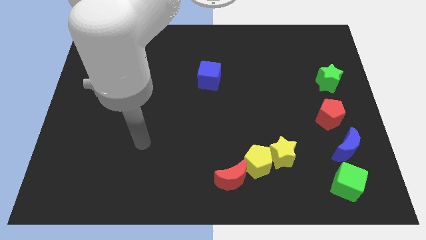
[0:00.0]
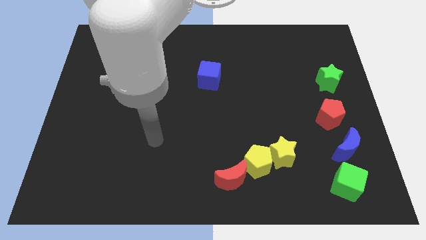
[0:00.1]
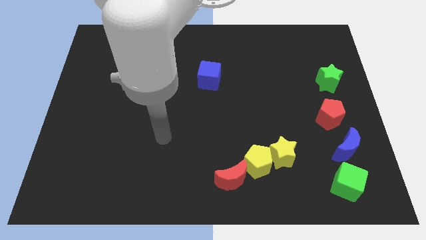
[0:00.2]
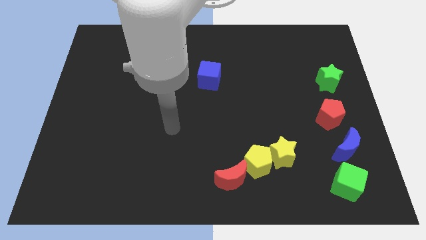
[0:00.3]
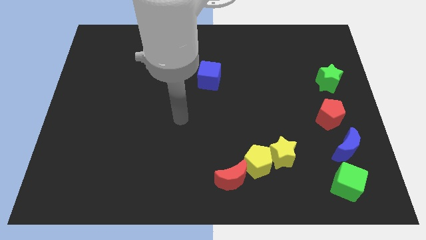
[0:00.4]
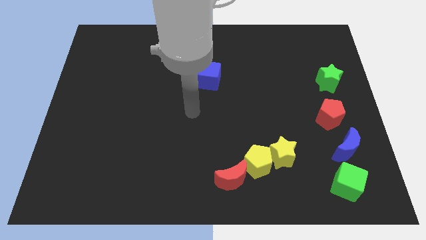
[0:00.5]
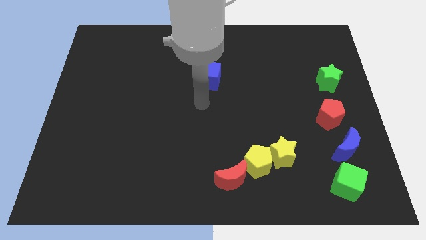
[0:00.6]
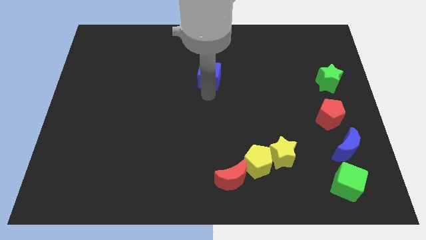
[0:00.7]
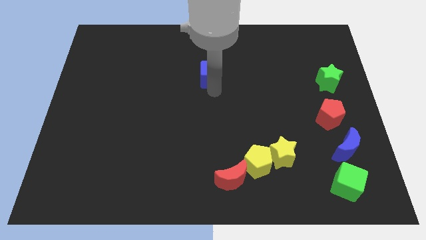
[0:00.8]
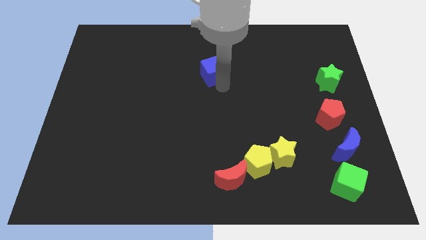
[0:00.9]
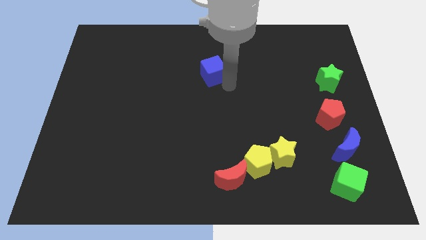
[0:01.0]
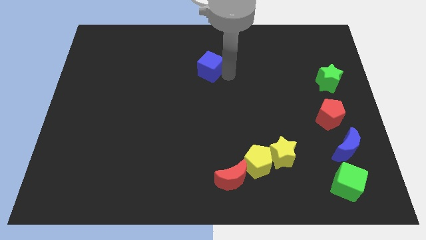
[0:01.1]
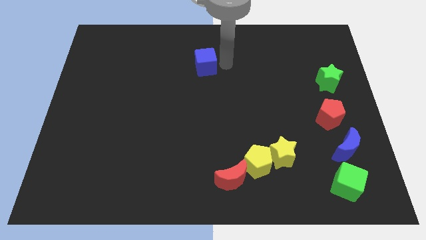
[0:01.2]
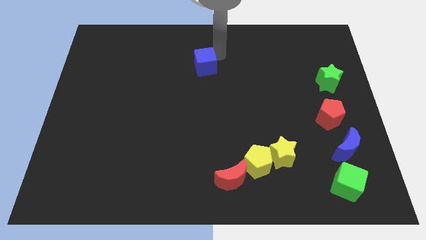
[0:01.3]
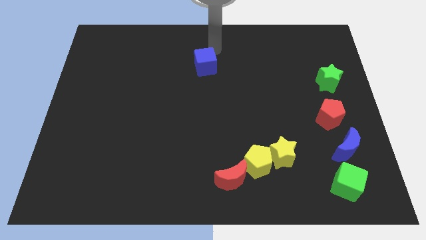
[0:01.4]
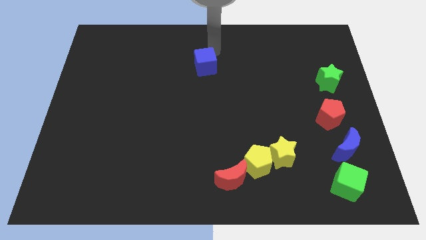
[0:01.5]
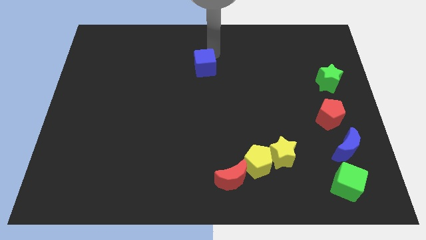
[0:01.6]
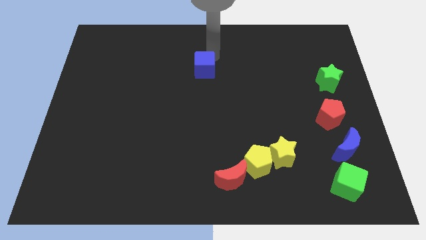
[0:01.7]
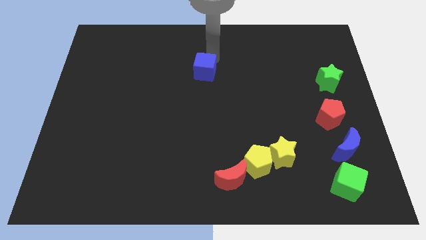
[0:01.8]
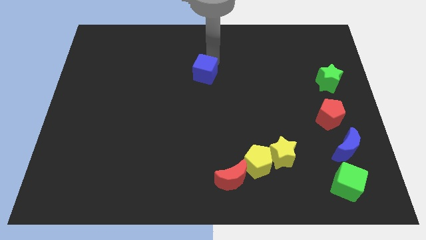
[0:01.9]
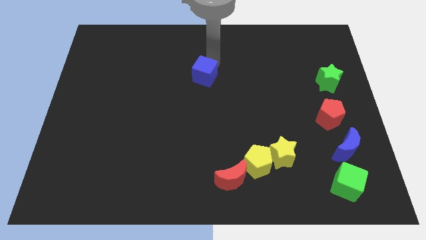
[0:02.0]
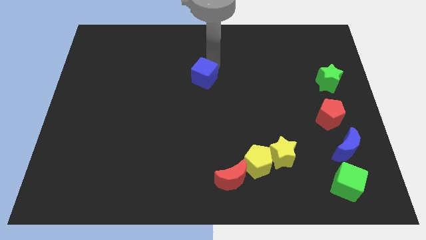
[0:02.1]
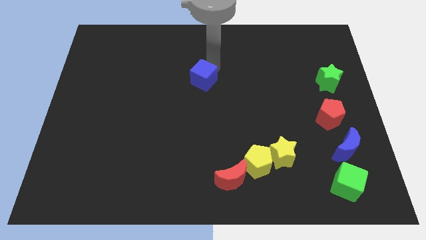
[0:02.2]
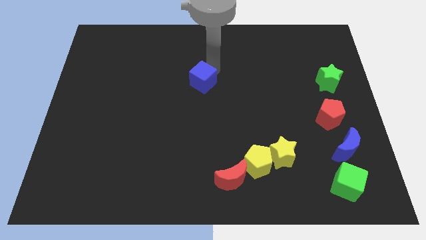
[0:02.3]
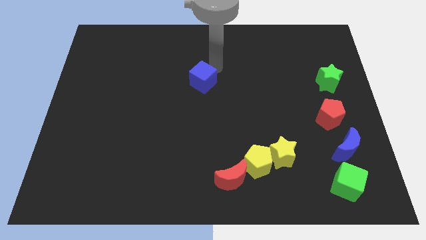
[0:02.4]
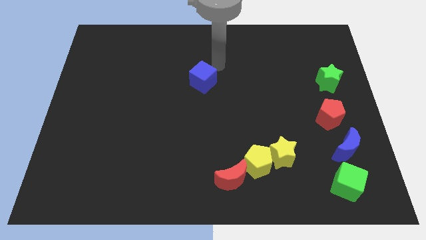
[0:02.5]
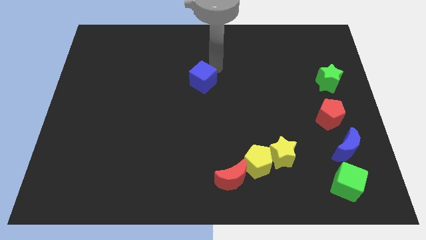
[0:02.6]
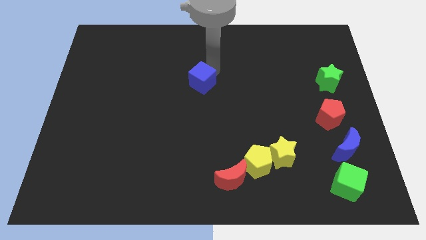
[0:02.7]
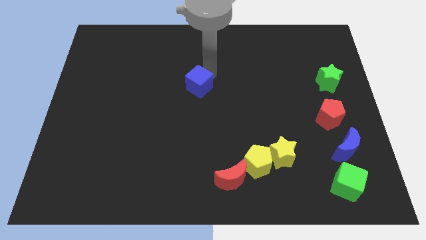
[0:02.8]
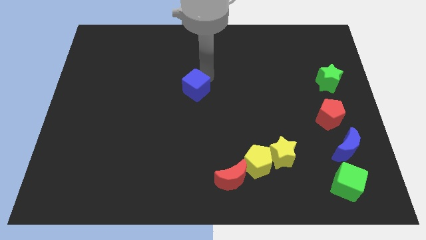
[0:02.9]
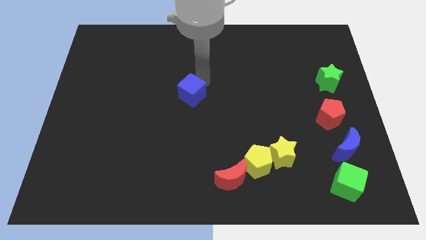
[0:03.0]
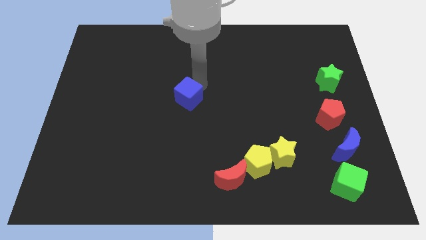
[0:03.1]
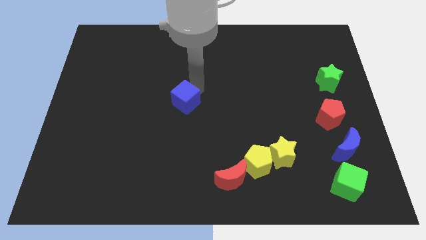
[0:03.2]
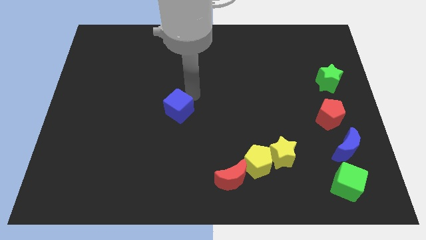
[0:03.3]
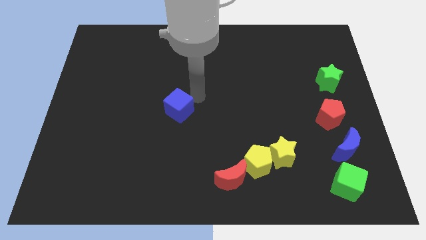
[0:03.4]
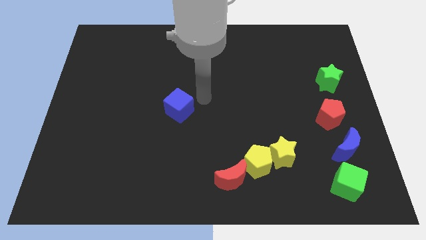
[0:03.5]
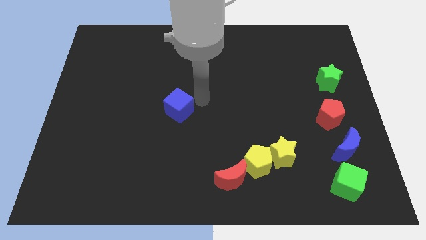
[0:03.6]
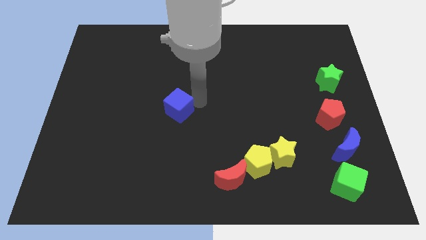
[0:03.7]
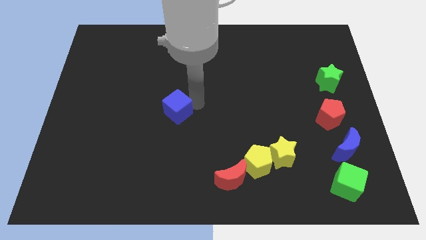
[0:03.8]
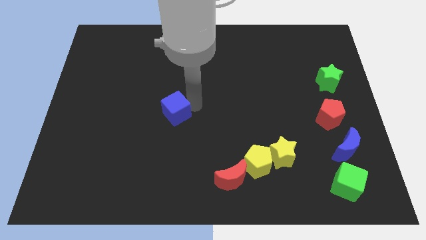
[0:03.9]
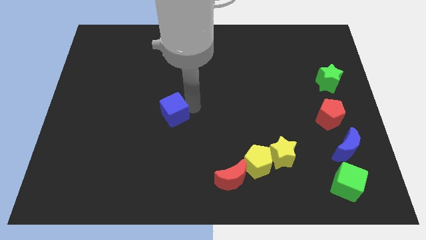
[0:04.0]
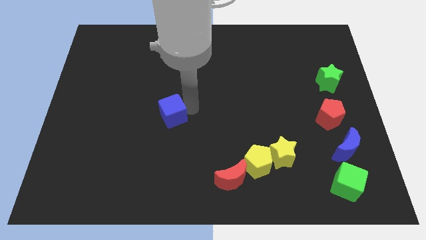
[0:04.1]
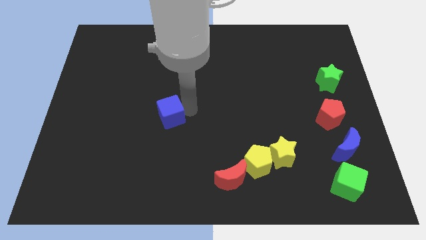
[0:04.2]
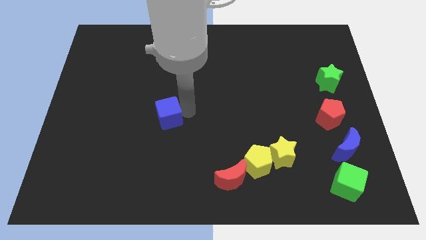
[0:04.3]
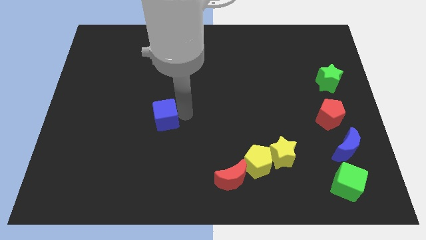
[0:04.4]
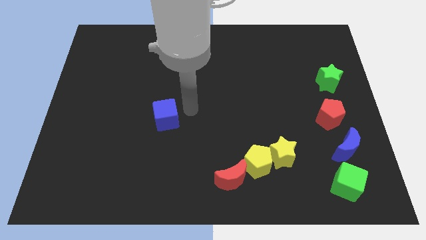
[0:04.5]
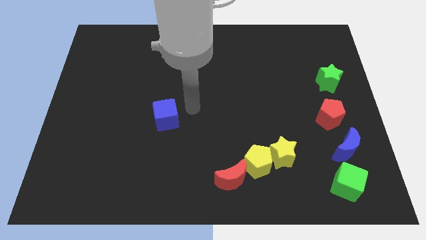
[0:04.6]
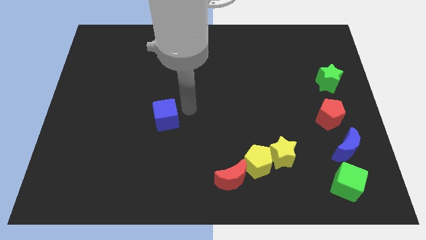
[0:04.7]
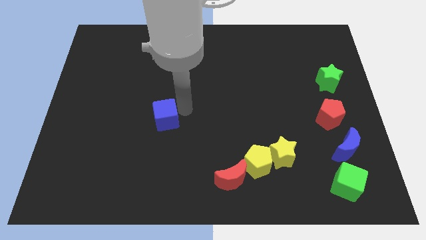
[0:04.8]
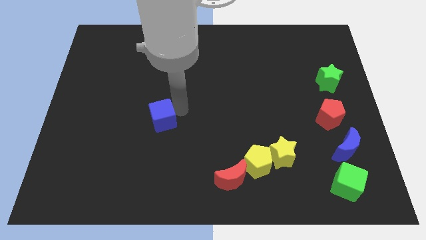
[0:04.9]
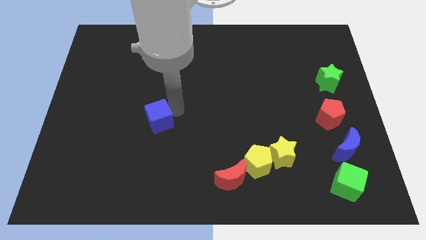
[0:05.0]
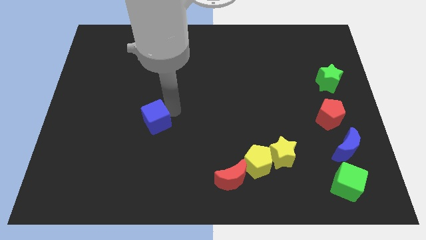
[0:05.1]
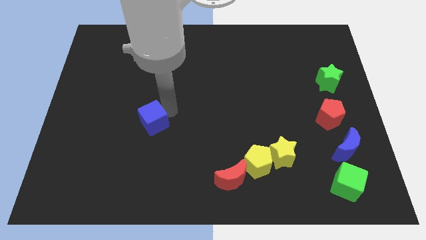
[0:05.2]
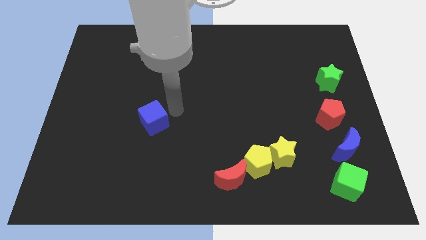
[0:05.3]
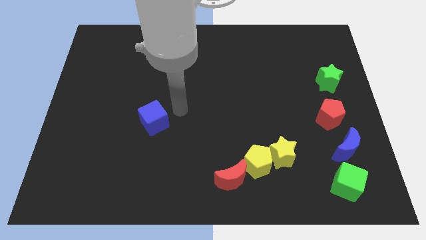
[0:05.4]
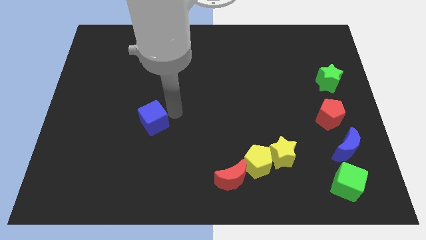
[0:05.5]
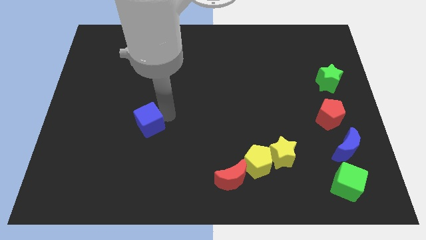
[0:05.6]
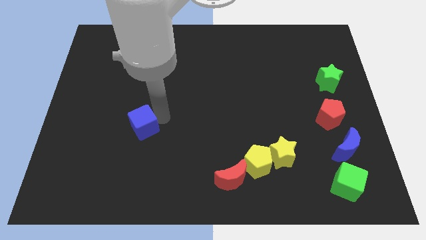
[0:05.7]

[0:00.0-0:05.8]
move the blue cube downwards and left diagonally

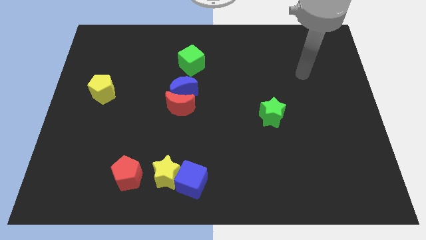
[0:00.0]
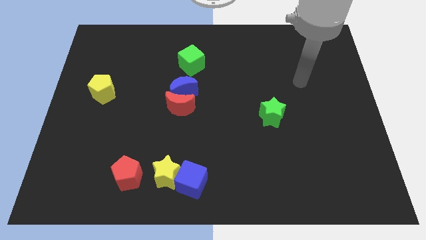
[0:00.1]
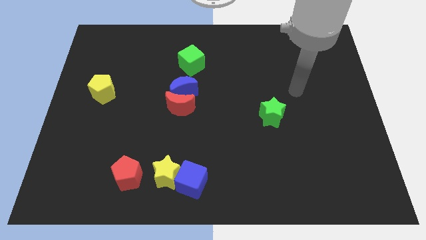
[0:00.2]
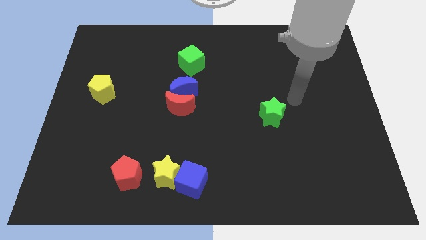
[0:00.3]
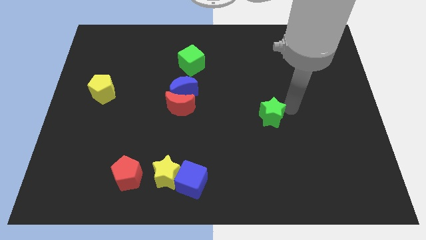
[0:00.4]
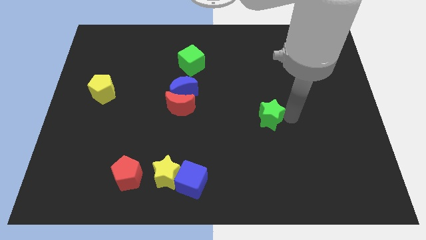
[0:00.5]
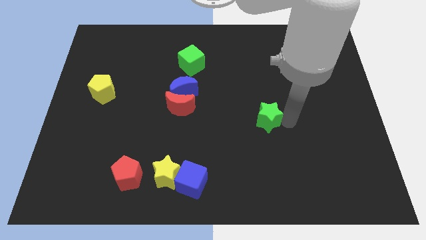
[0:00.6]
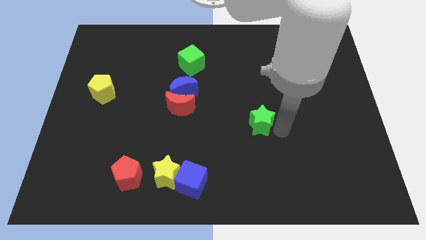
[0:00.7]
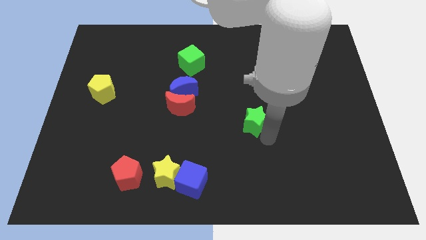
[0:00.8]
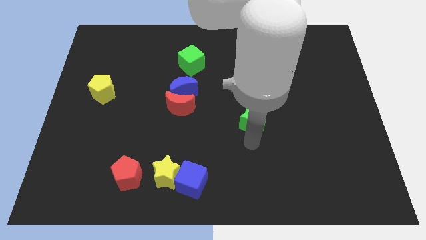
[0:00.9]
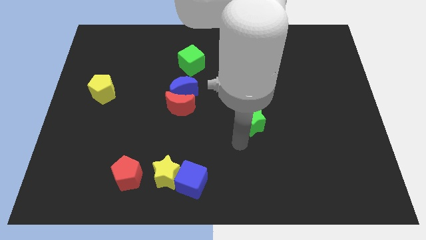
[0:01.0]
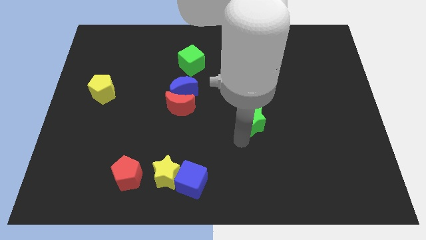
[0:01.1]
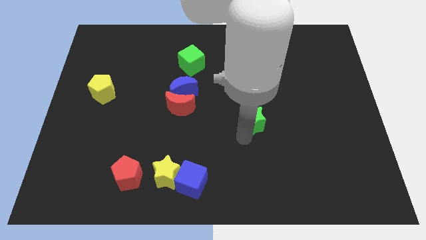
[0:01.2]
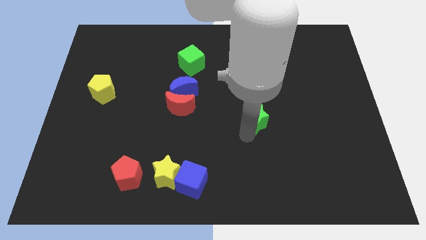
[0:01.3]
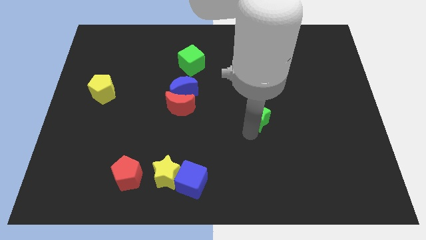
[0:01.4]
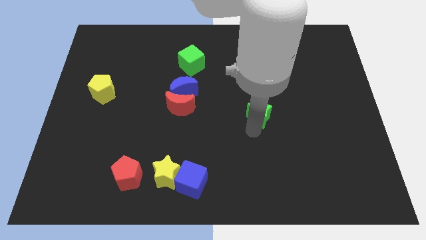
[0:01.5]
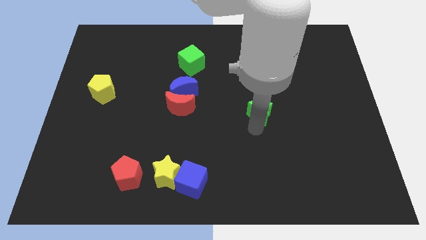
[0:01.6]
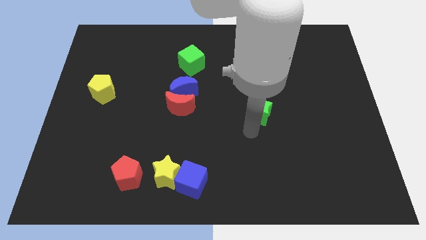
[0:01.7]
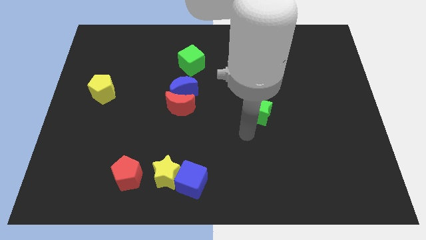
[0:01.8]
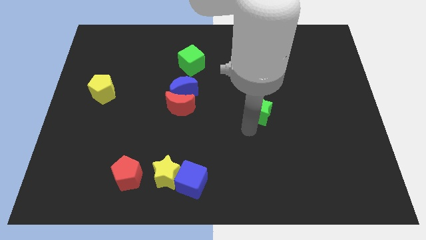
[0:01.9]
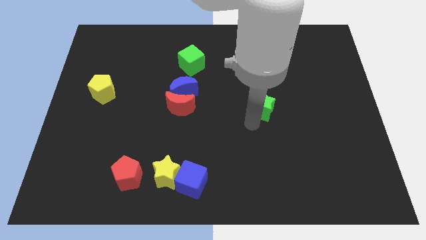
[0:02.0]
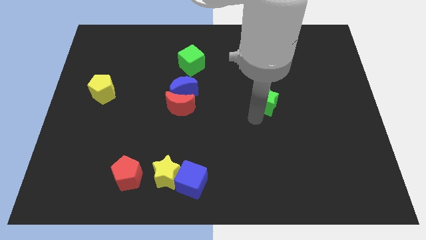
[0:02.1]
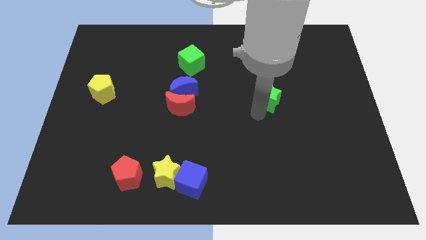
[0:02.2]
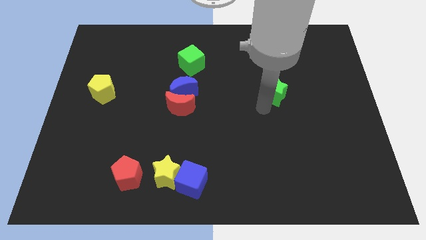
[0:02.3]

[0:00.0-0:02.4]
push the green star up a little bit
